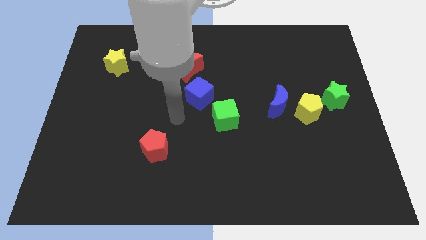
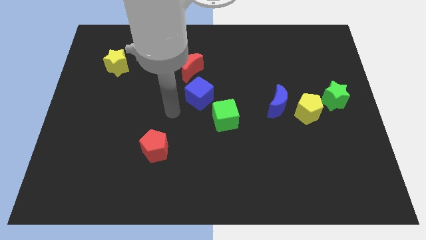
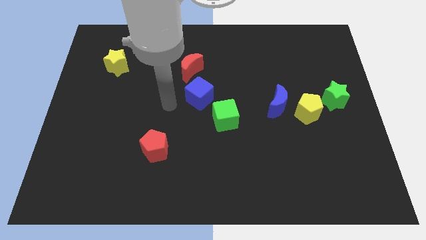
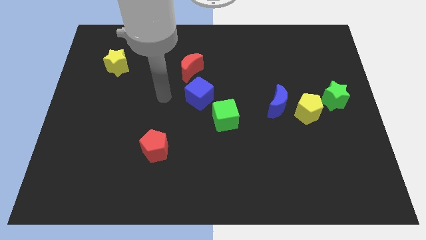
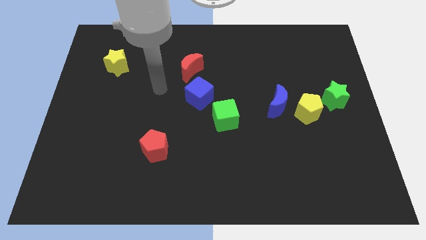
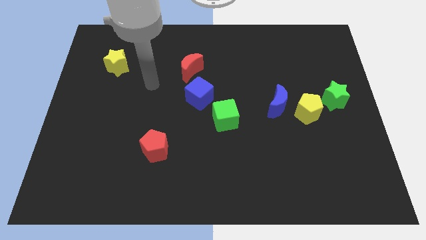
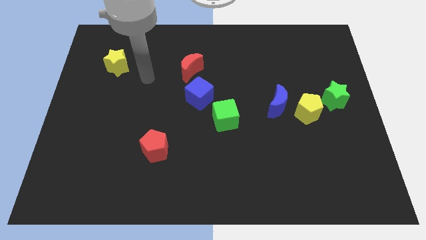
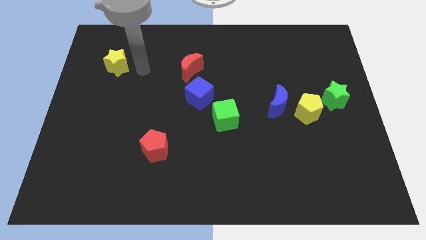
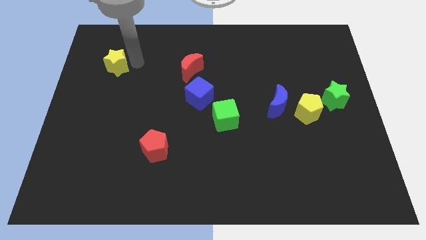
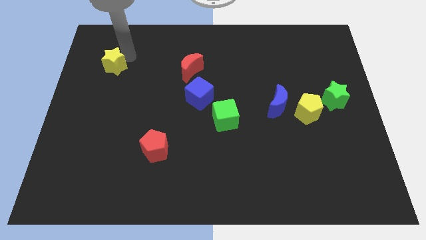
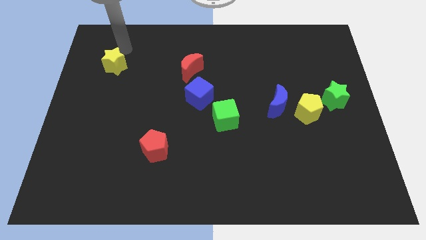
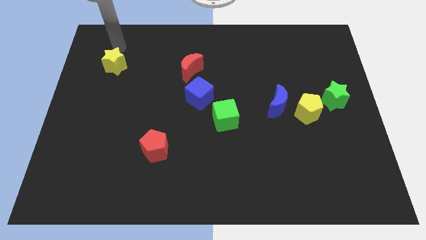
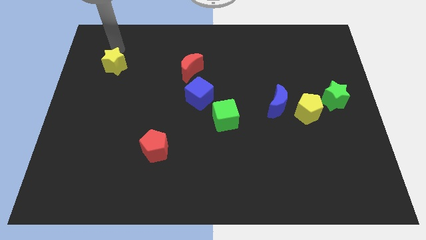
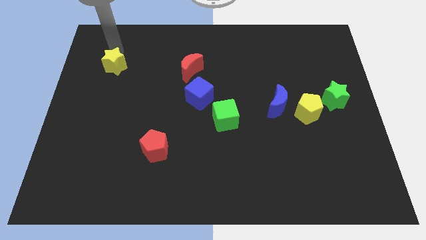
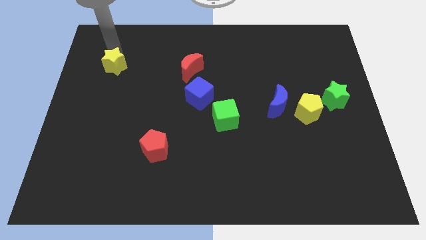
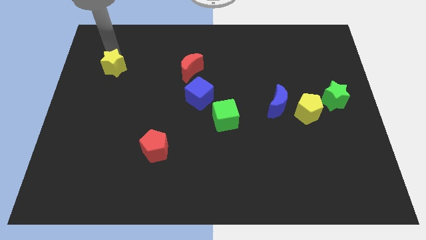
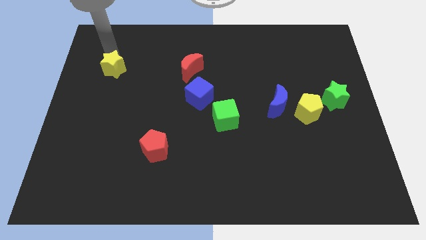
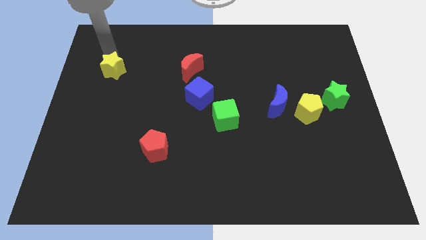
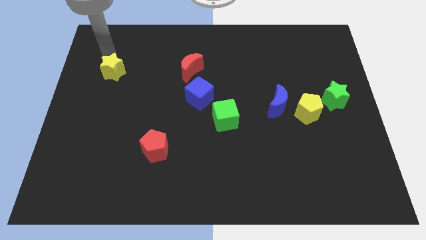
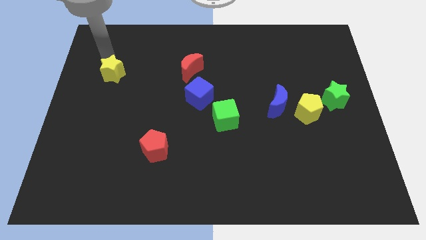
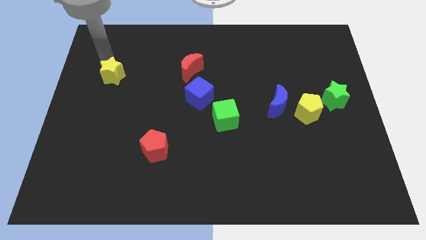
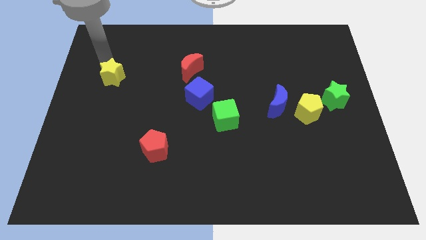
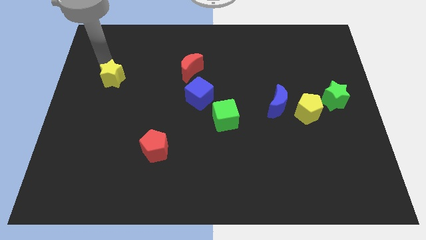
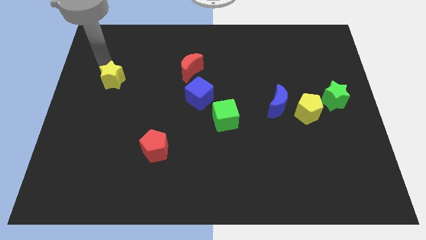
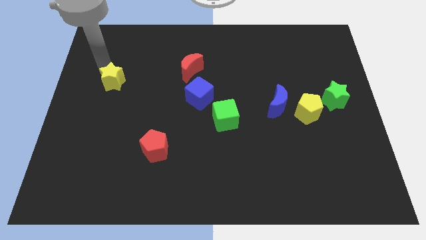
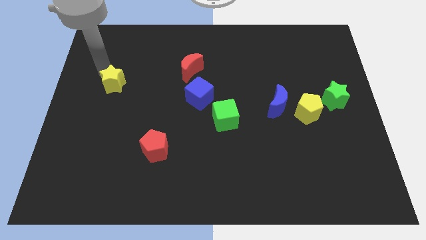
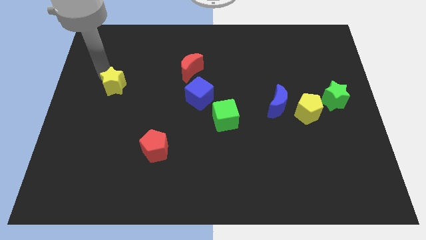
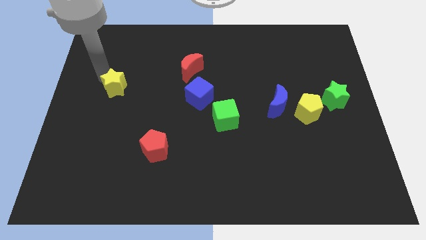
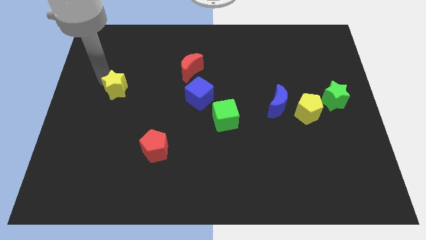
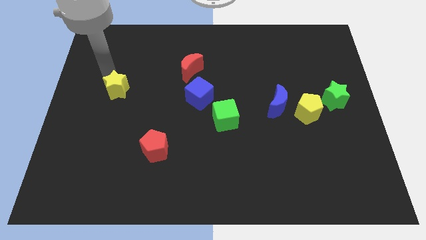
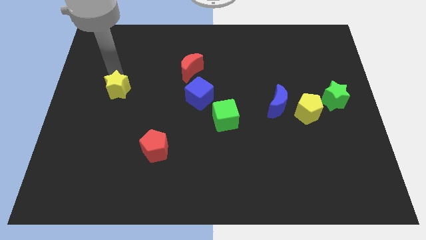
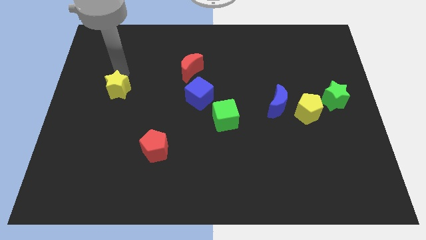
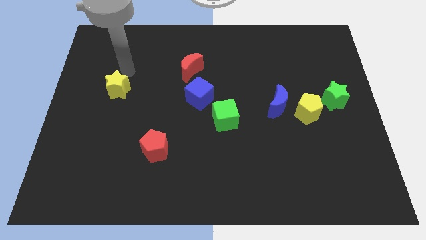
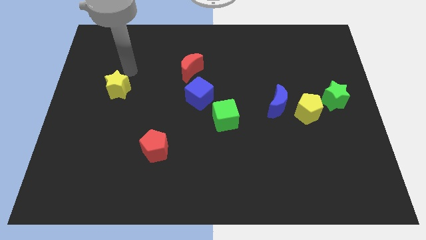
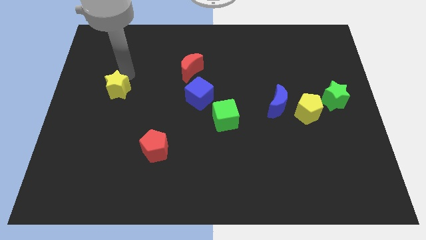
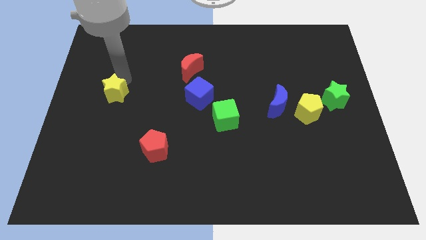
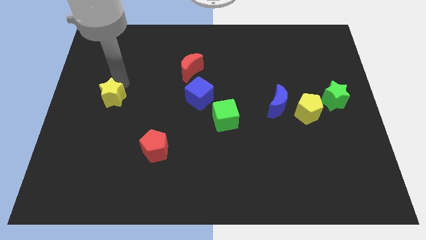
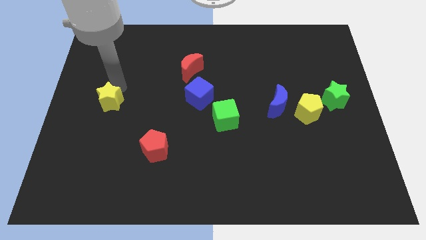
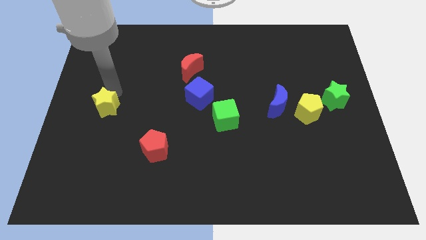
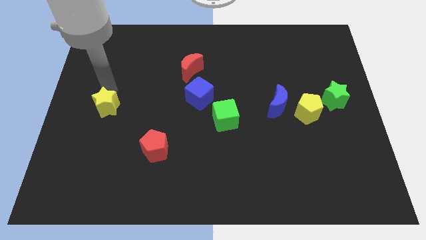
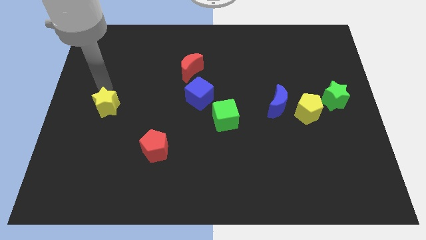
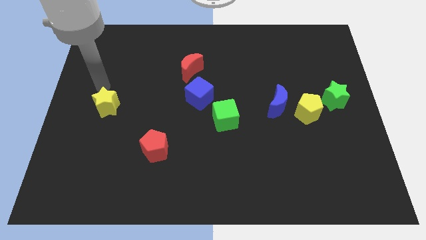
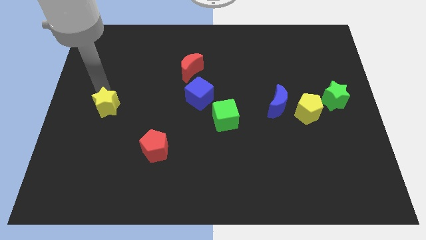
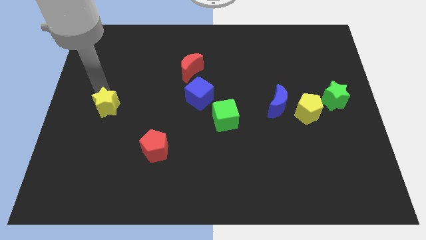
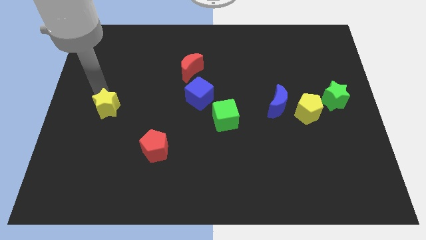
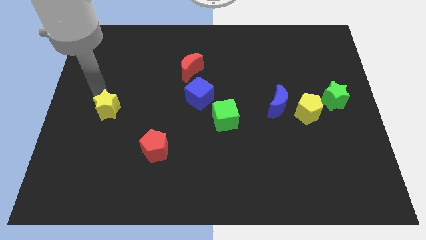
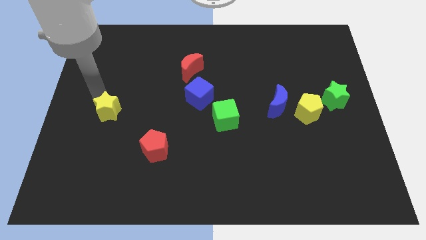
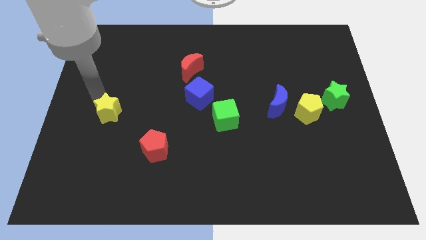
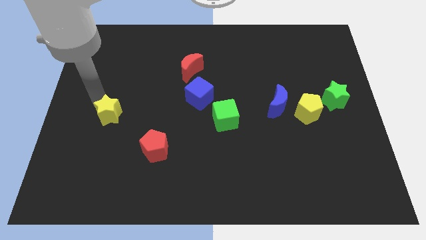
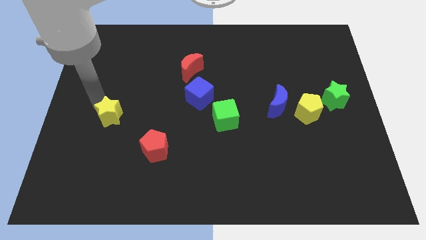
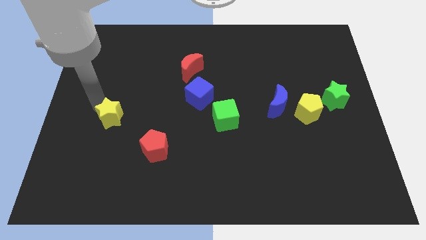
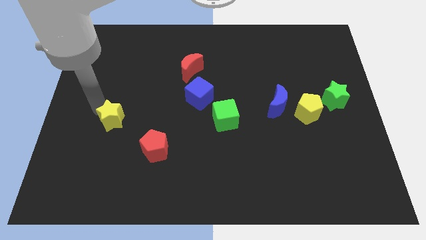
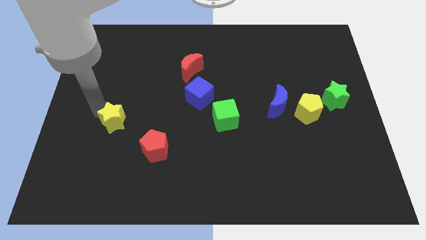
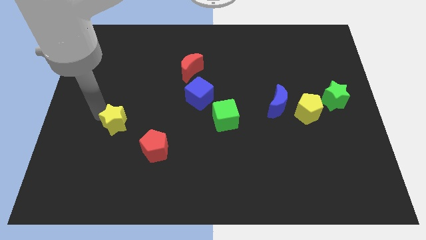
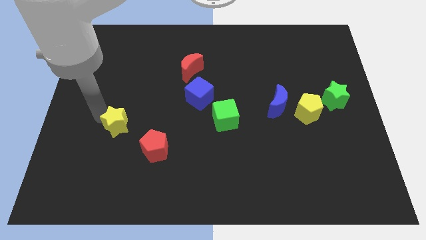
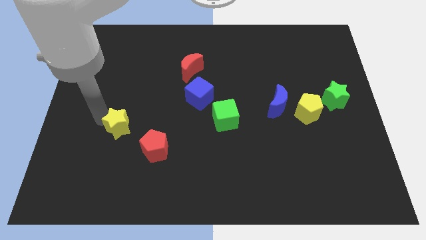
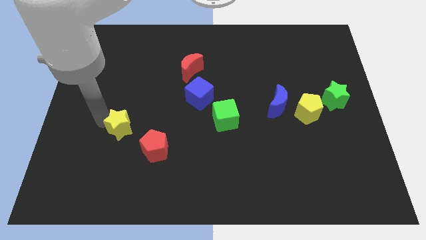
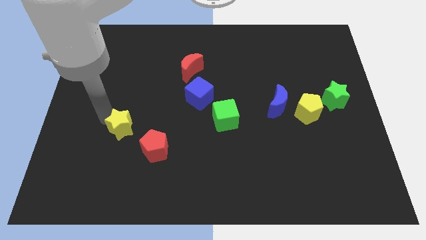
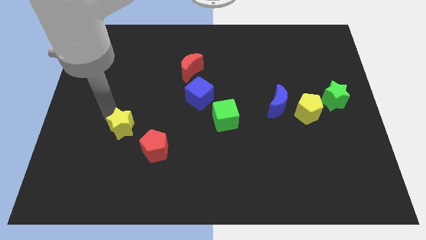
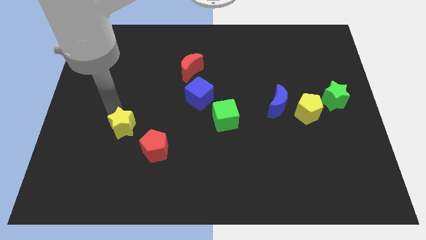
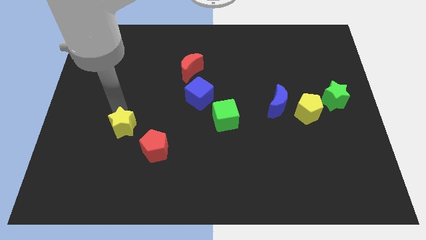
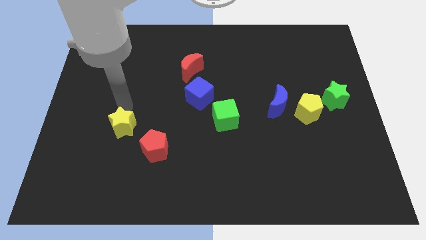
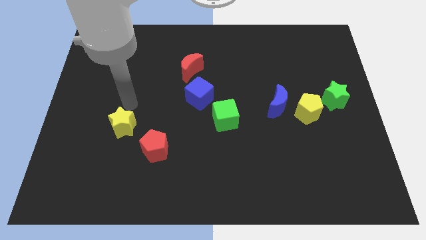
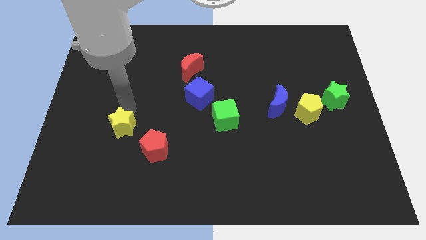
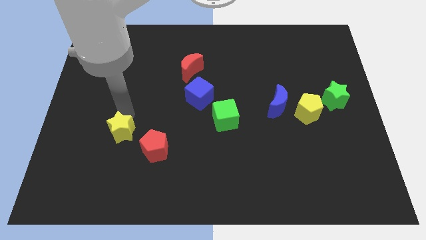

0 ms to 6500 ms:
push the yellow star downwards

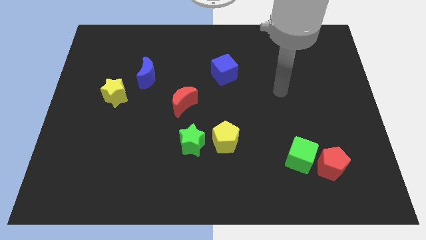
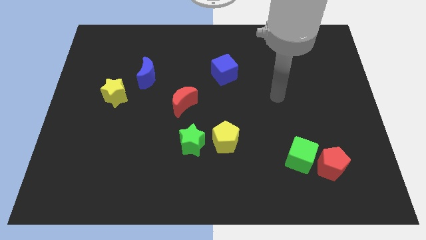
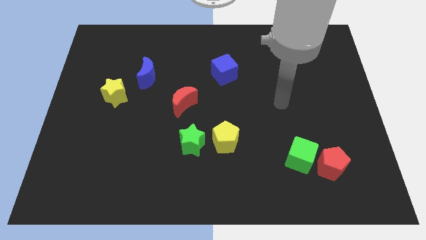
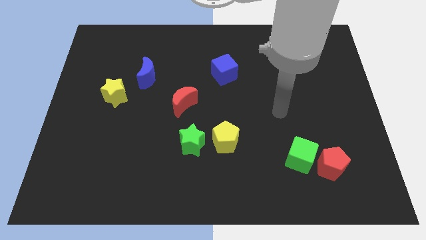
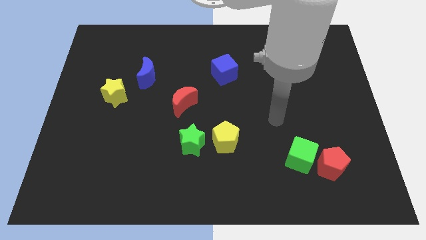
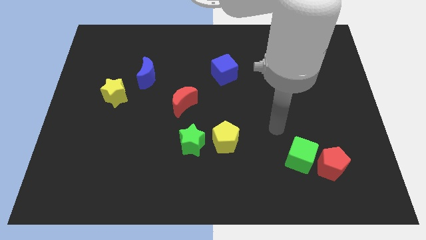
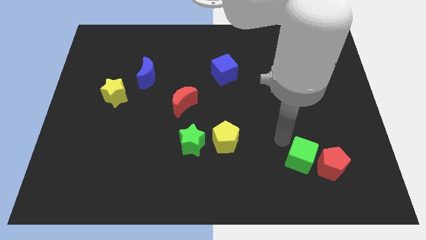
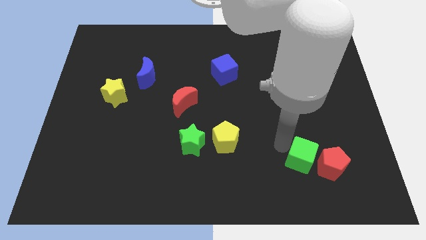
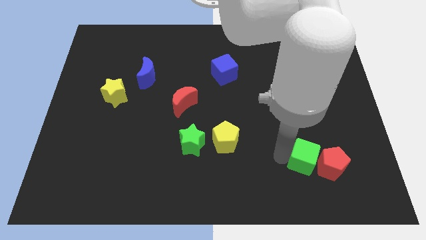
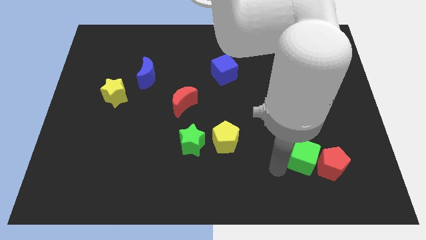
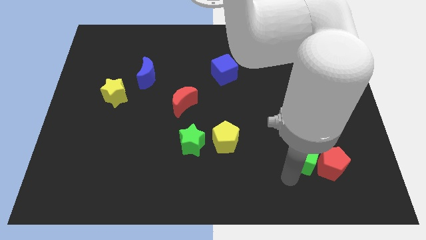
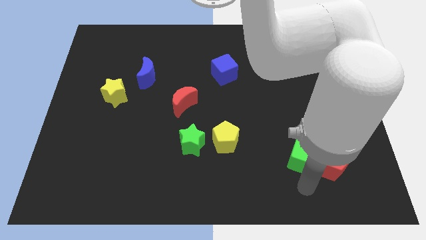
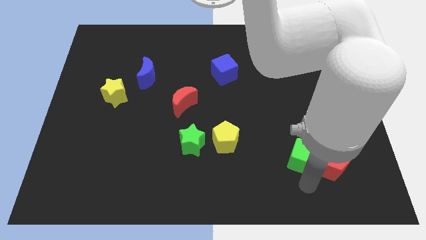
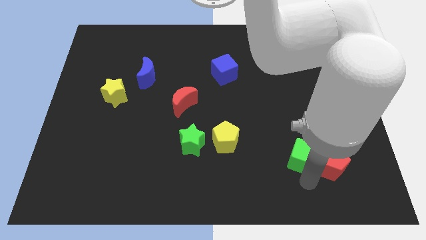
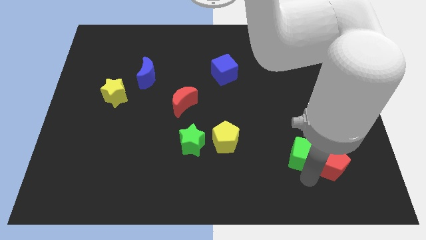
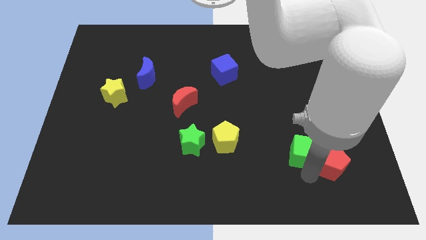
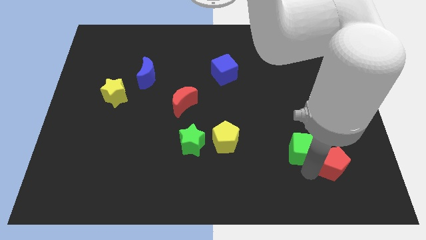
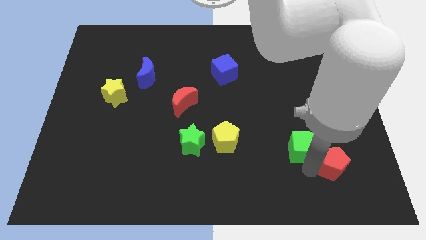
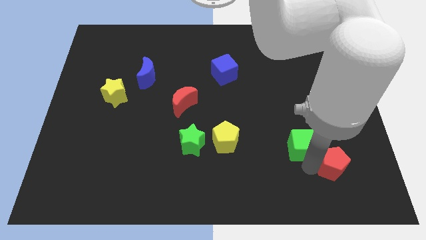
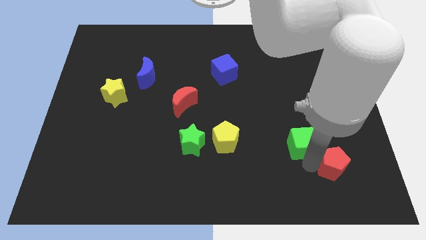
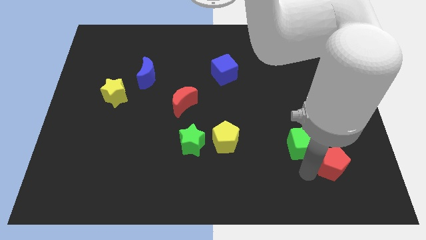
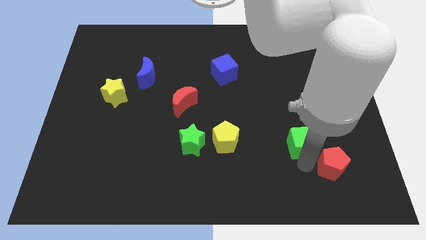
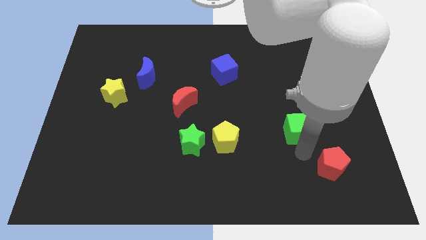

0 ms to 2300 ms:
slide the green cube a bit upwards
